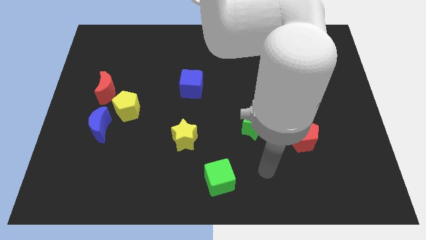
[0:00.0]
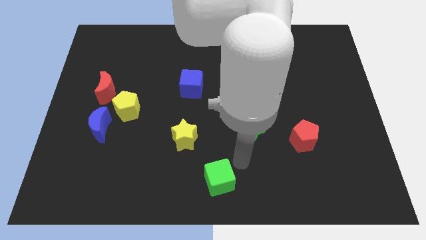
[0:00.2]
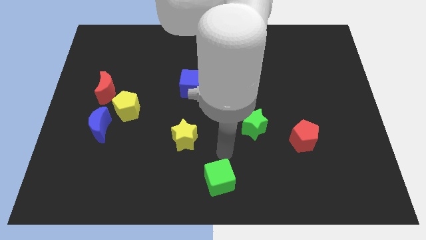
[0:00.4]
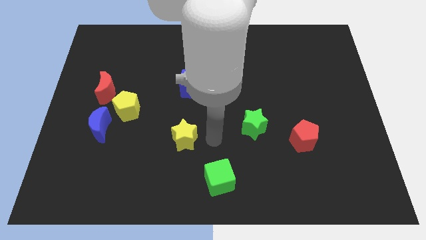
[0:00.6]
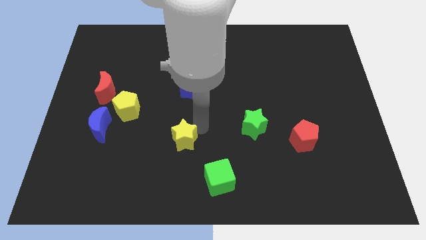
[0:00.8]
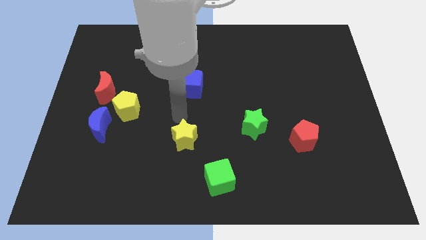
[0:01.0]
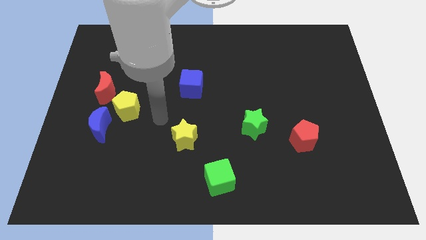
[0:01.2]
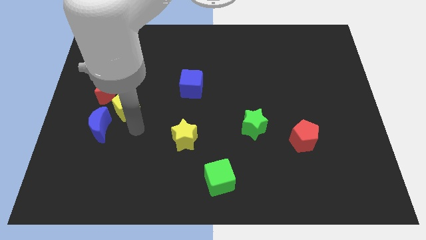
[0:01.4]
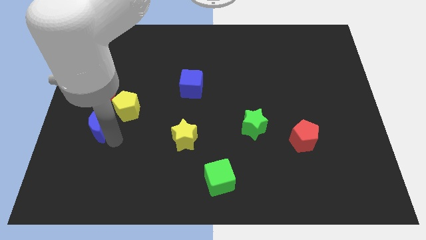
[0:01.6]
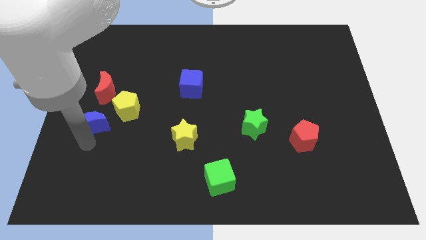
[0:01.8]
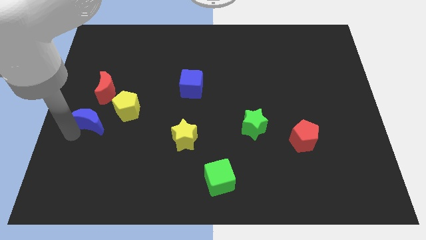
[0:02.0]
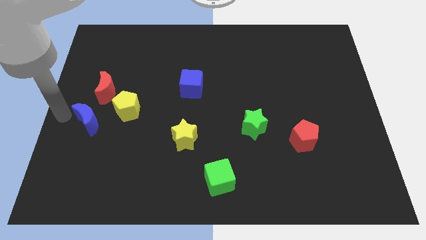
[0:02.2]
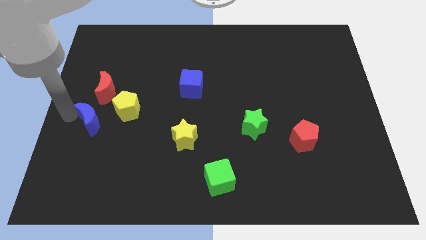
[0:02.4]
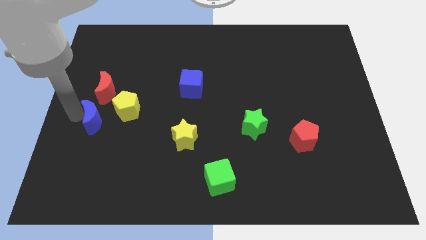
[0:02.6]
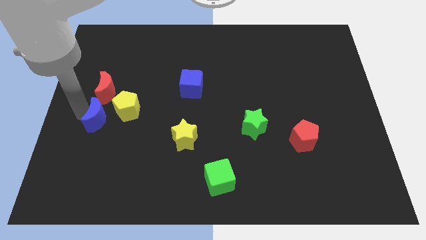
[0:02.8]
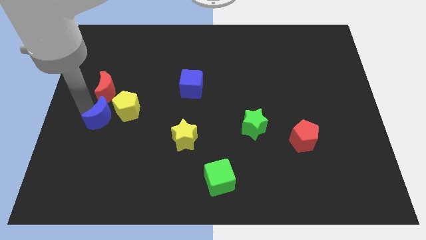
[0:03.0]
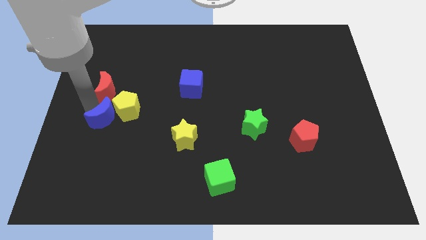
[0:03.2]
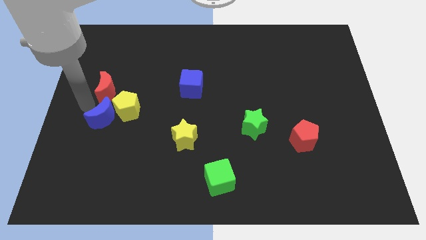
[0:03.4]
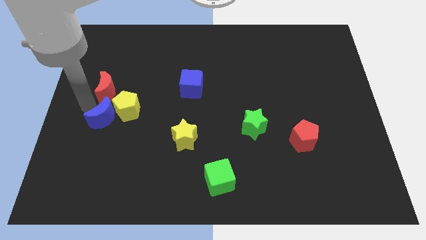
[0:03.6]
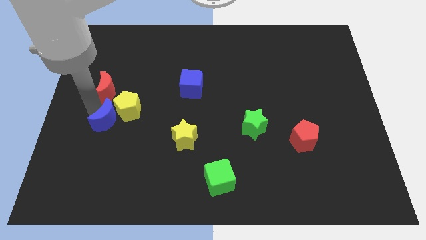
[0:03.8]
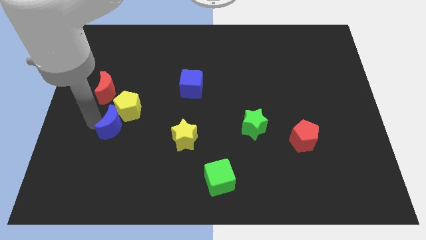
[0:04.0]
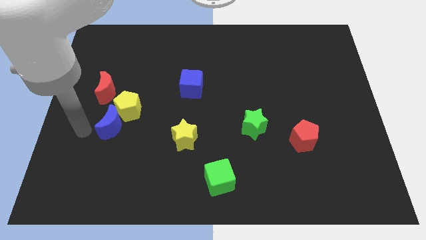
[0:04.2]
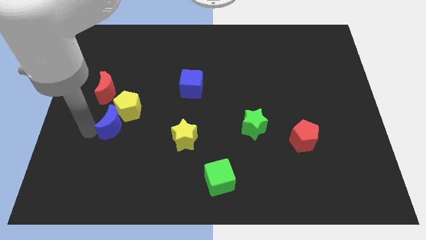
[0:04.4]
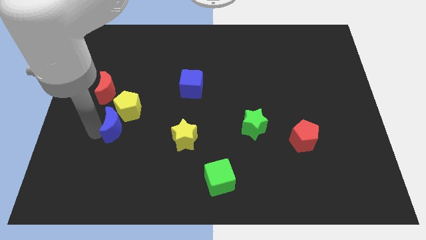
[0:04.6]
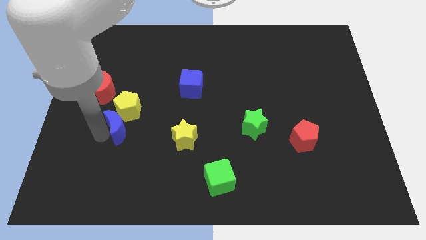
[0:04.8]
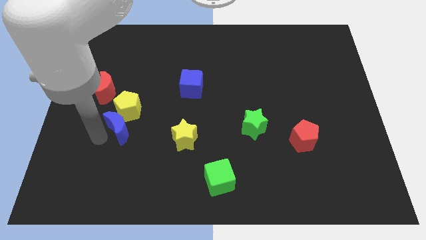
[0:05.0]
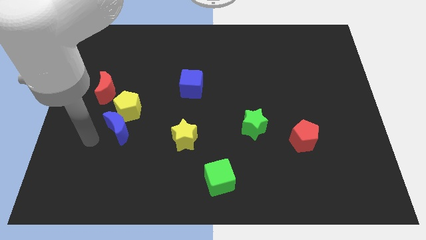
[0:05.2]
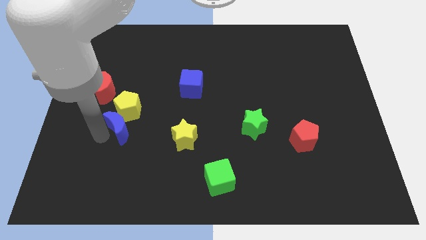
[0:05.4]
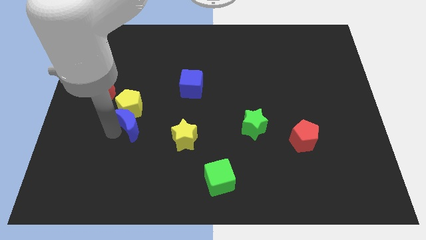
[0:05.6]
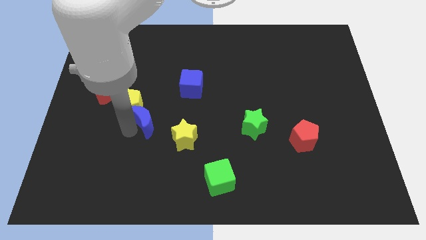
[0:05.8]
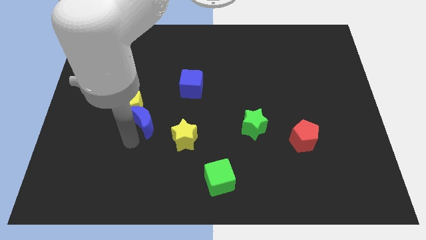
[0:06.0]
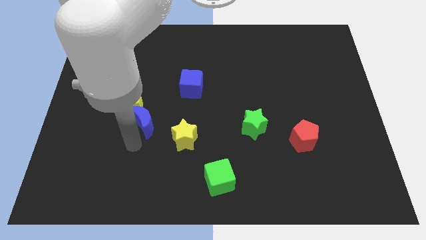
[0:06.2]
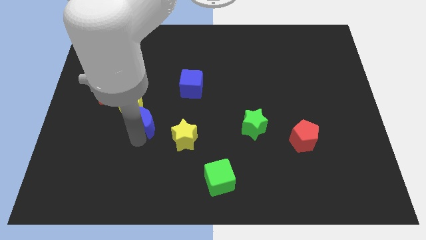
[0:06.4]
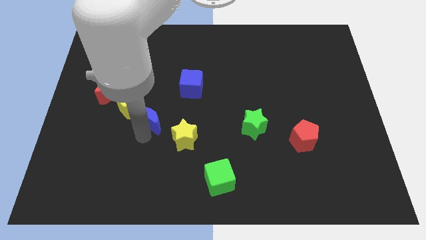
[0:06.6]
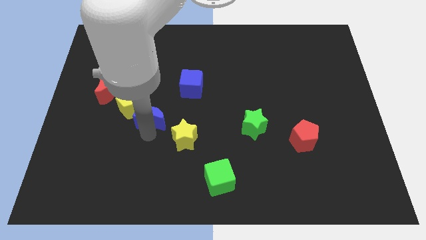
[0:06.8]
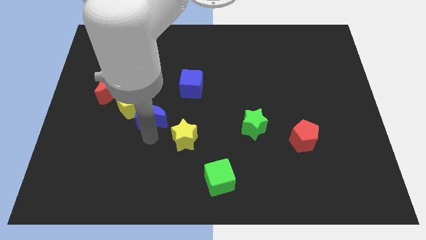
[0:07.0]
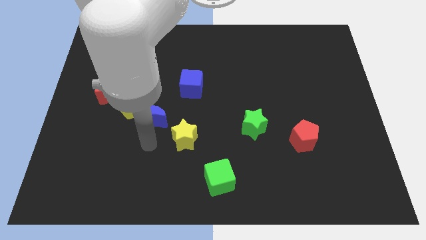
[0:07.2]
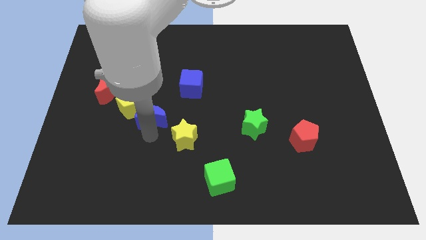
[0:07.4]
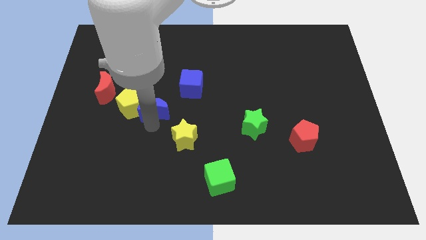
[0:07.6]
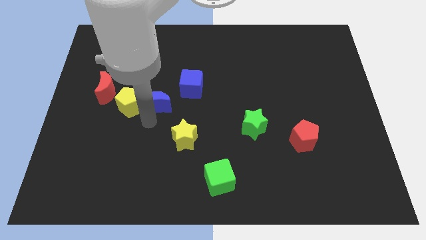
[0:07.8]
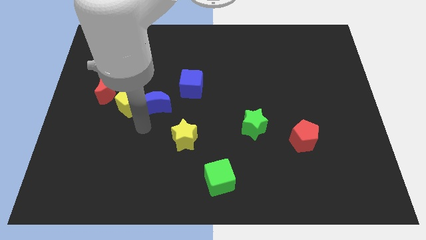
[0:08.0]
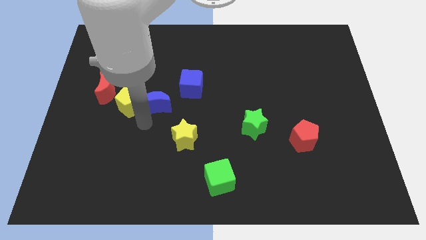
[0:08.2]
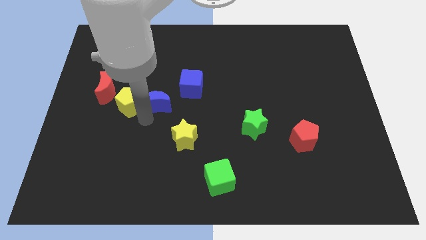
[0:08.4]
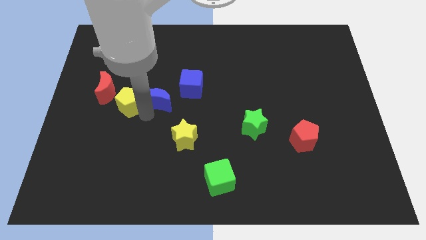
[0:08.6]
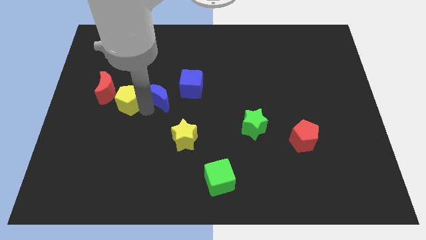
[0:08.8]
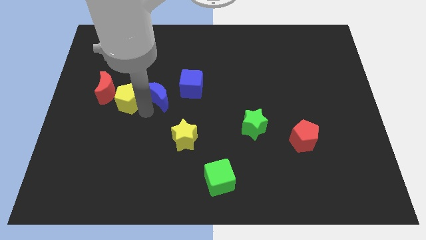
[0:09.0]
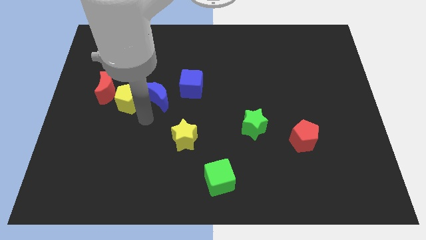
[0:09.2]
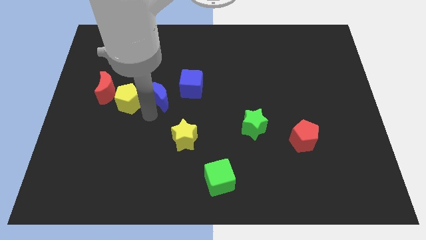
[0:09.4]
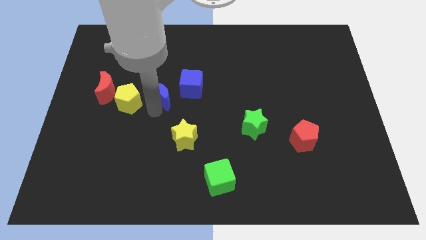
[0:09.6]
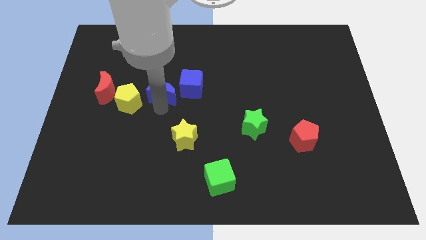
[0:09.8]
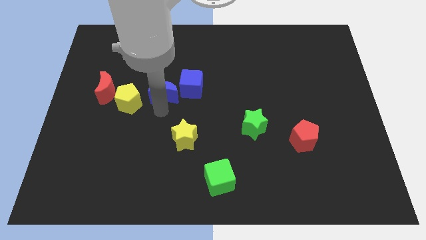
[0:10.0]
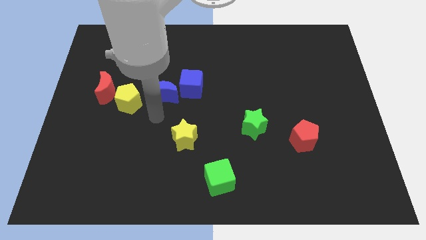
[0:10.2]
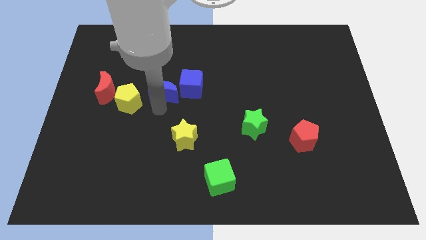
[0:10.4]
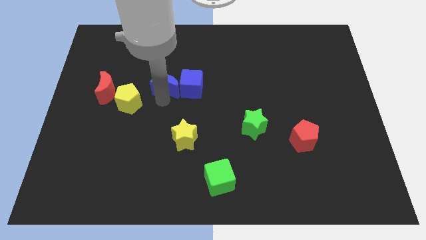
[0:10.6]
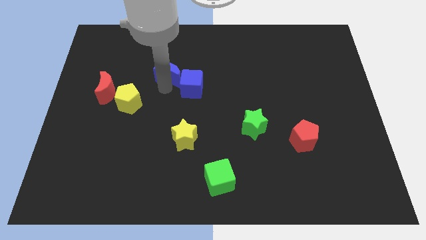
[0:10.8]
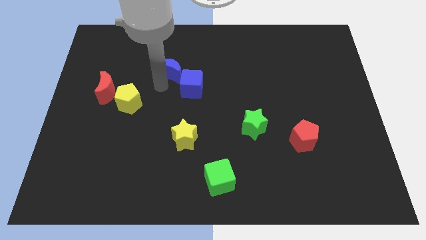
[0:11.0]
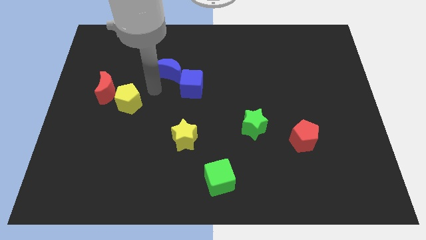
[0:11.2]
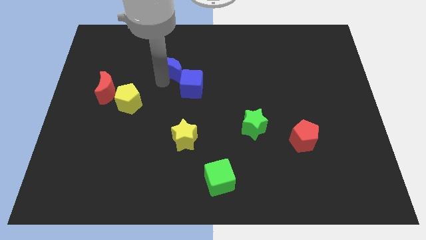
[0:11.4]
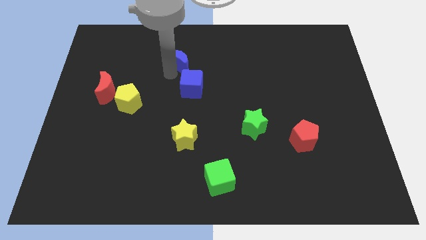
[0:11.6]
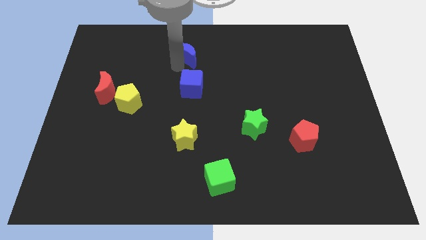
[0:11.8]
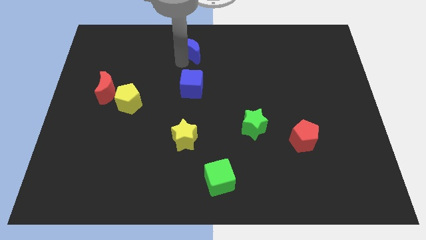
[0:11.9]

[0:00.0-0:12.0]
push the blue moon to the towards your base

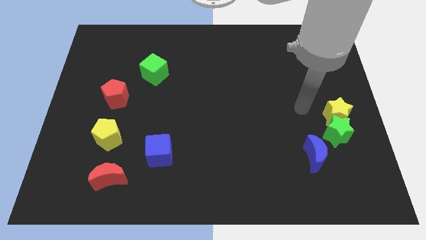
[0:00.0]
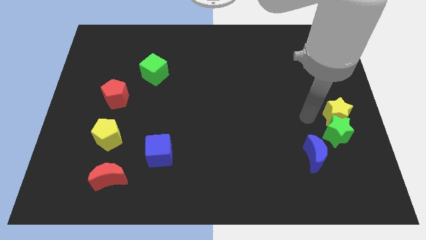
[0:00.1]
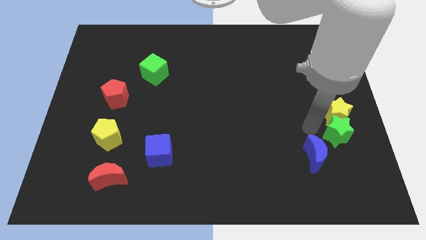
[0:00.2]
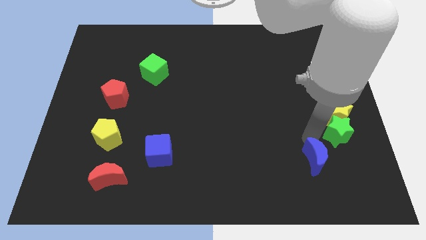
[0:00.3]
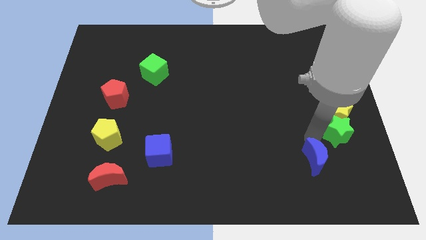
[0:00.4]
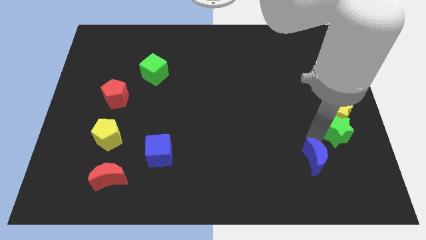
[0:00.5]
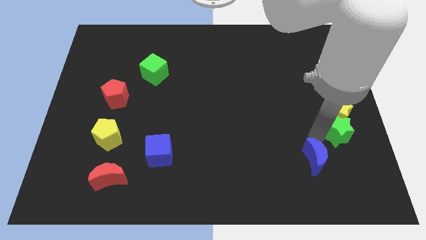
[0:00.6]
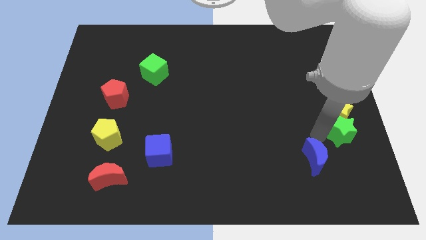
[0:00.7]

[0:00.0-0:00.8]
move the green star to the right side
